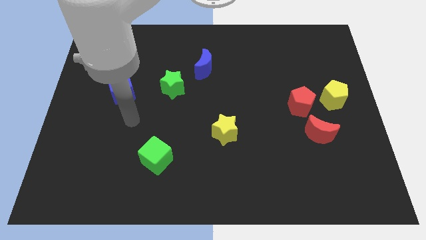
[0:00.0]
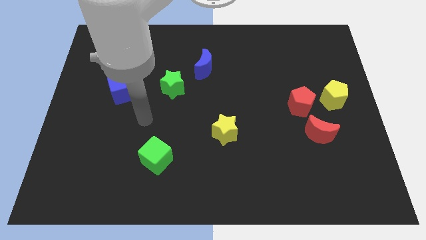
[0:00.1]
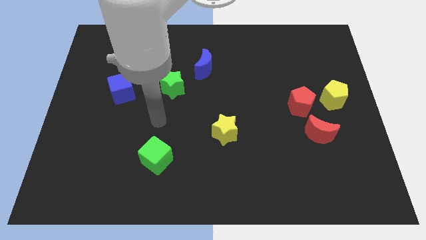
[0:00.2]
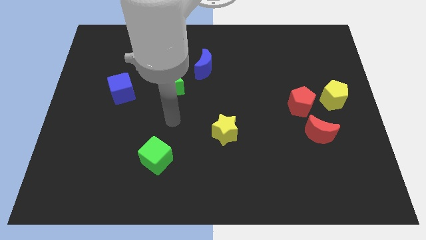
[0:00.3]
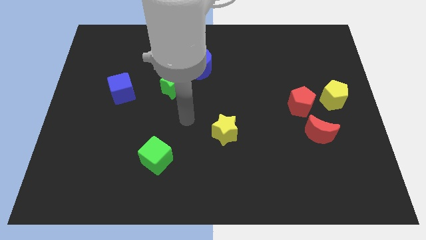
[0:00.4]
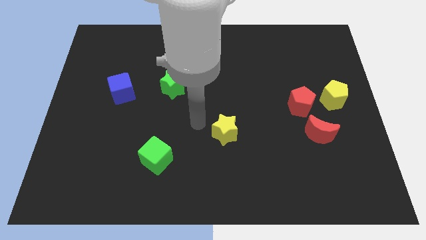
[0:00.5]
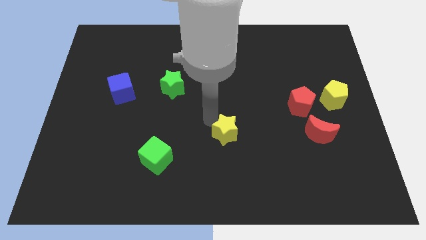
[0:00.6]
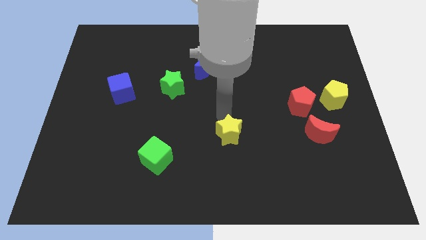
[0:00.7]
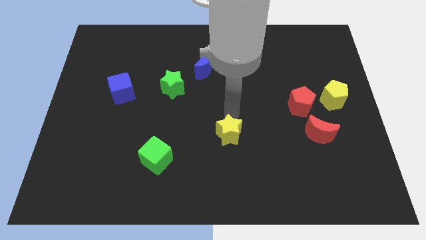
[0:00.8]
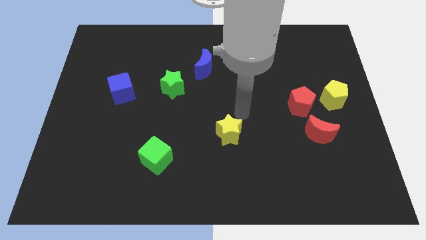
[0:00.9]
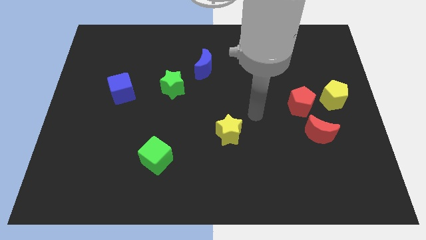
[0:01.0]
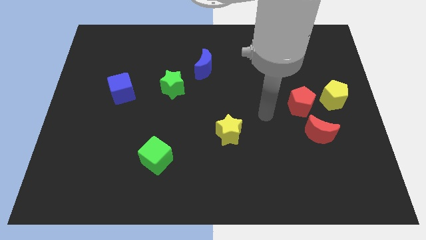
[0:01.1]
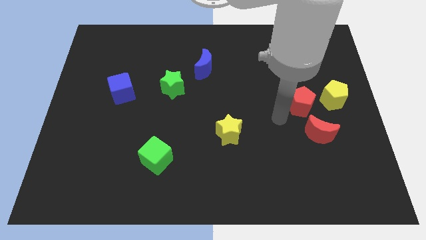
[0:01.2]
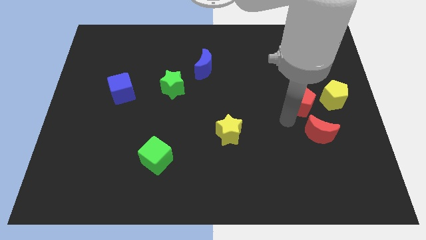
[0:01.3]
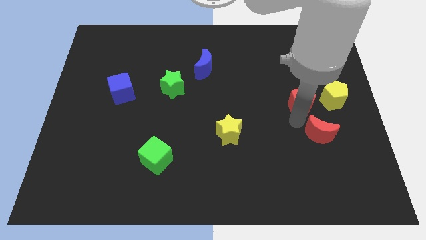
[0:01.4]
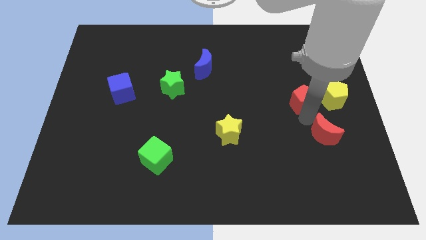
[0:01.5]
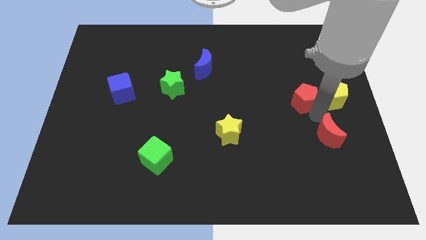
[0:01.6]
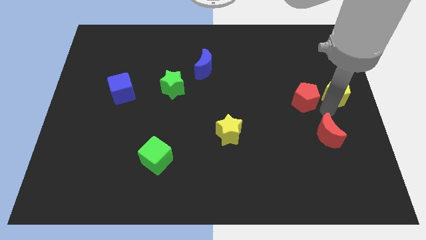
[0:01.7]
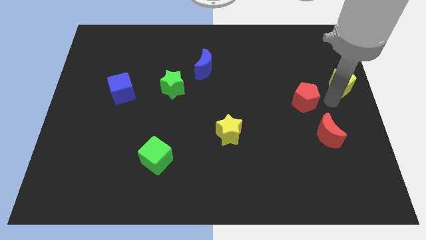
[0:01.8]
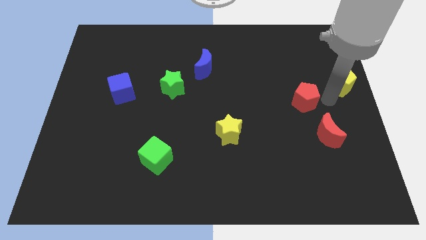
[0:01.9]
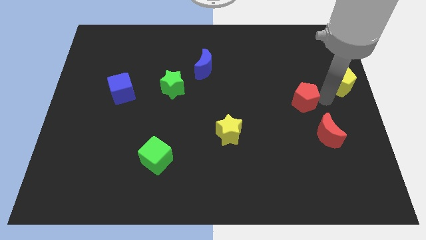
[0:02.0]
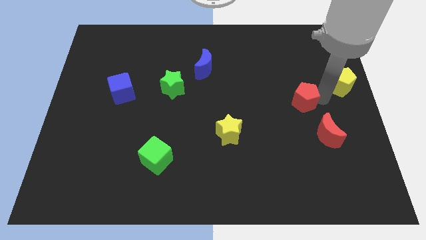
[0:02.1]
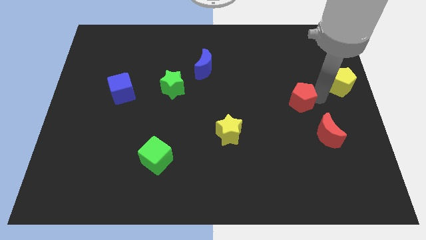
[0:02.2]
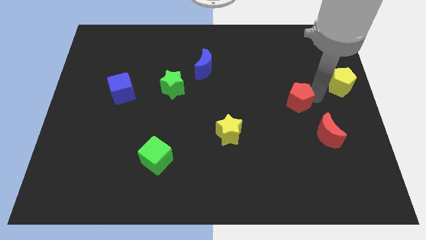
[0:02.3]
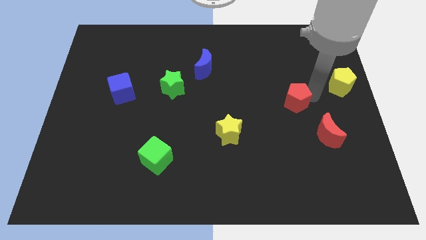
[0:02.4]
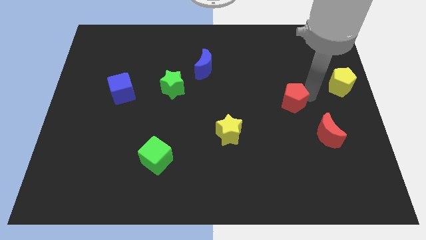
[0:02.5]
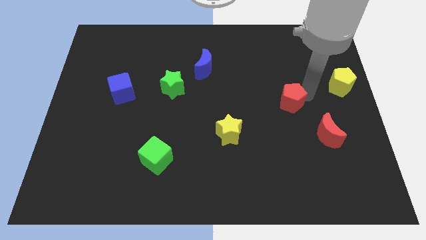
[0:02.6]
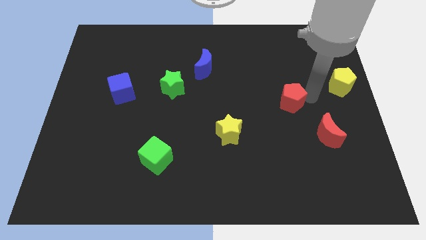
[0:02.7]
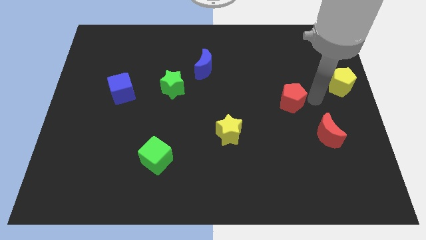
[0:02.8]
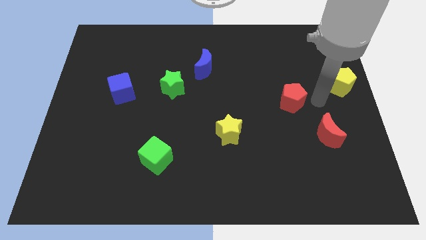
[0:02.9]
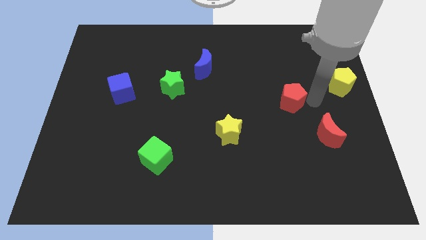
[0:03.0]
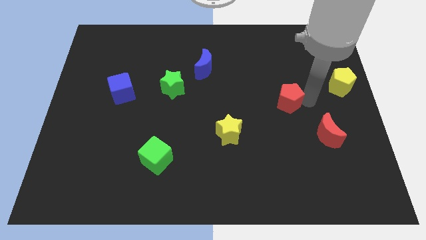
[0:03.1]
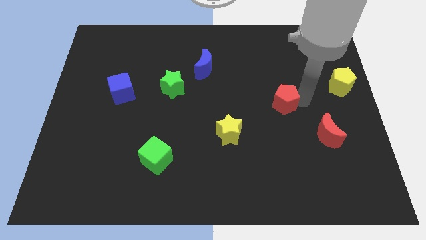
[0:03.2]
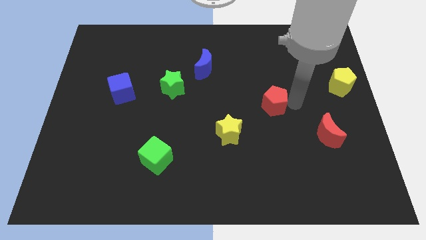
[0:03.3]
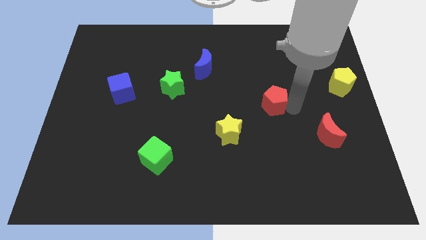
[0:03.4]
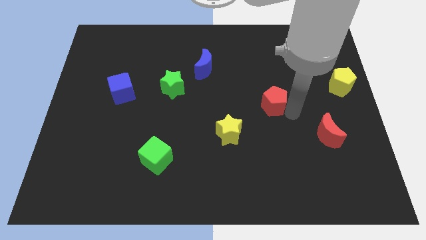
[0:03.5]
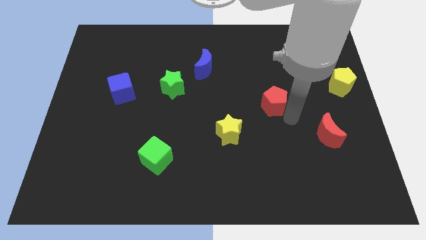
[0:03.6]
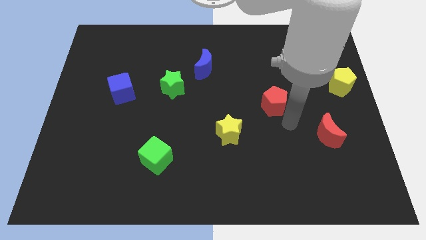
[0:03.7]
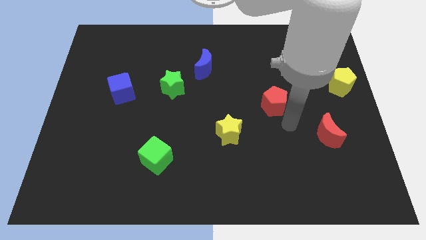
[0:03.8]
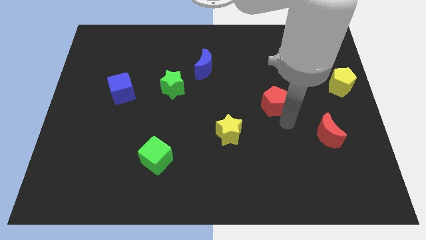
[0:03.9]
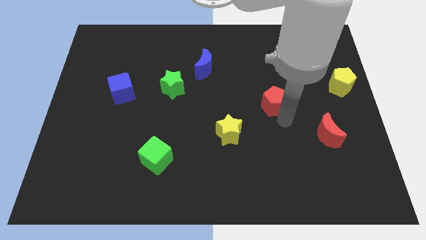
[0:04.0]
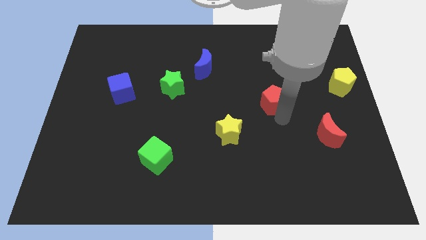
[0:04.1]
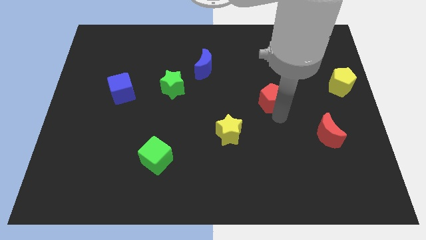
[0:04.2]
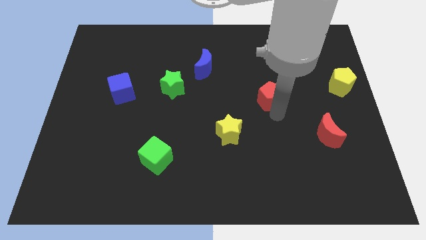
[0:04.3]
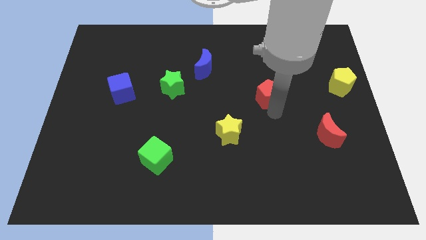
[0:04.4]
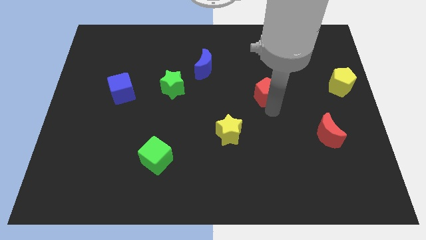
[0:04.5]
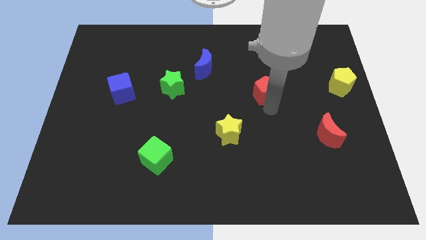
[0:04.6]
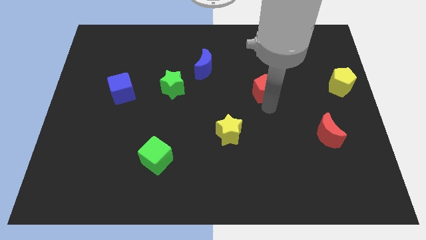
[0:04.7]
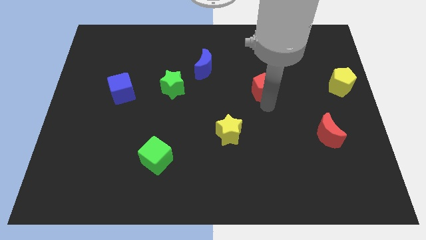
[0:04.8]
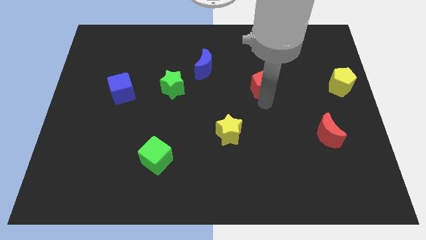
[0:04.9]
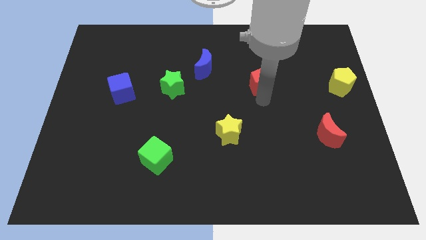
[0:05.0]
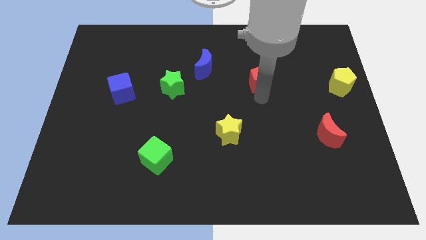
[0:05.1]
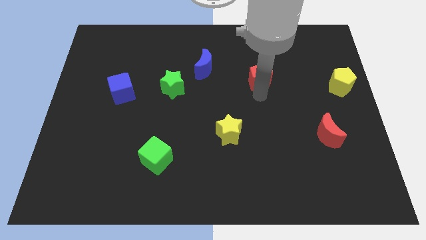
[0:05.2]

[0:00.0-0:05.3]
move the red pentagon right of the blue moon

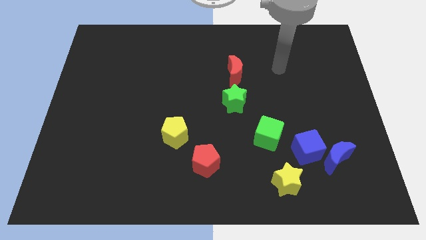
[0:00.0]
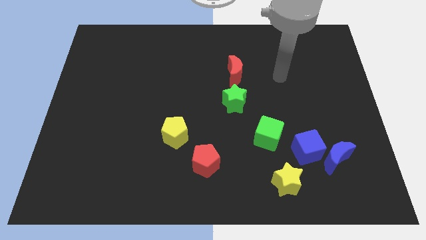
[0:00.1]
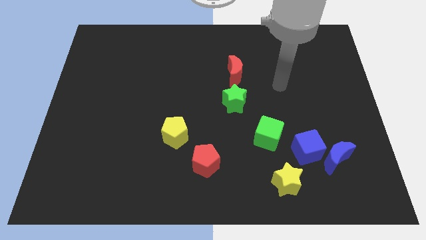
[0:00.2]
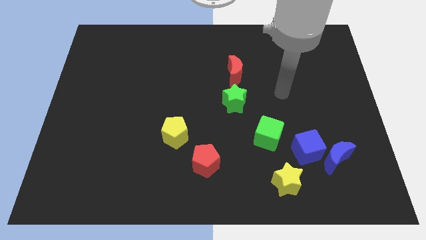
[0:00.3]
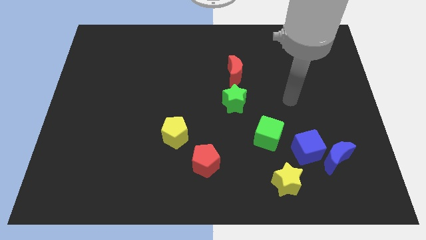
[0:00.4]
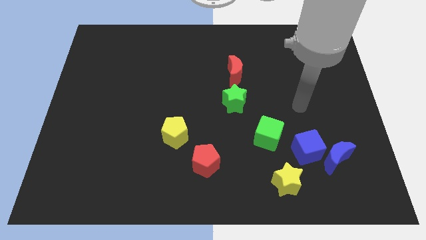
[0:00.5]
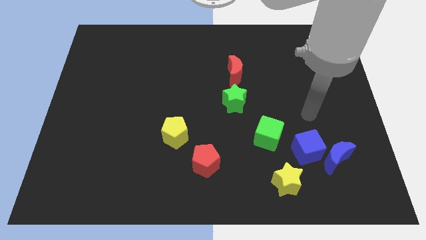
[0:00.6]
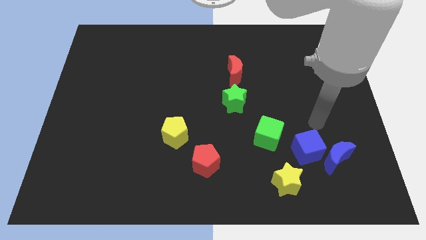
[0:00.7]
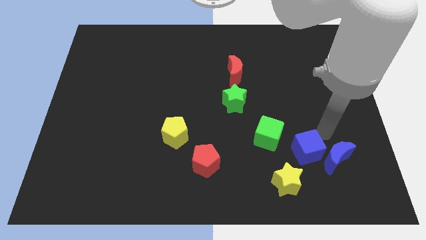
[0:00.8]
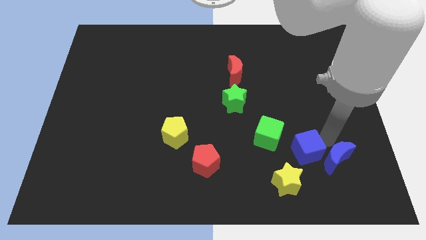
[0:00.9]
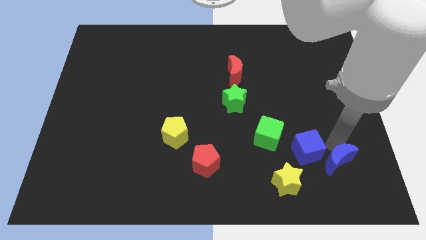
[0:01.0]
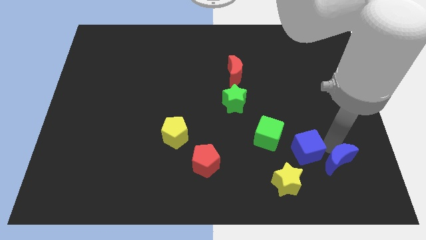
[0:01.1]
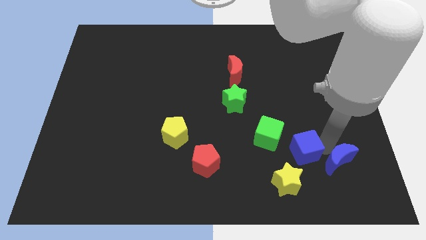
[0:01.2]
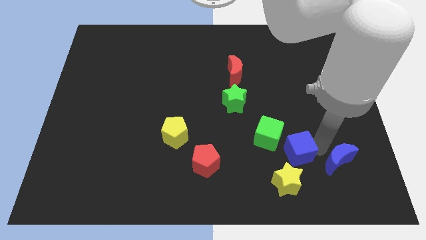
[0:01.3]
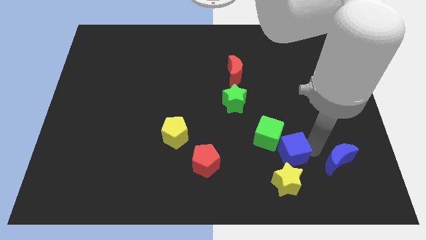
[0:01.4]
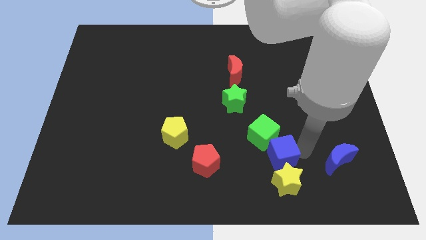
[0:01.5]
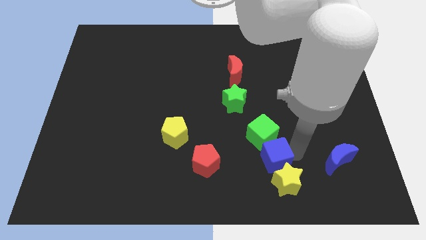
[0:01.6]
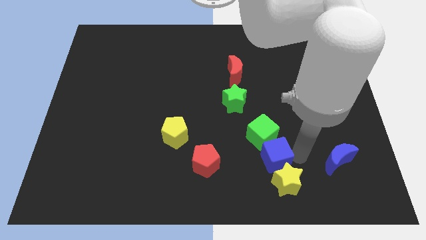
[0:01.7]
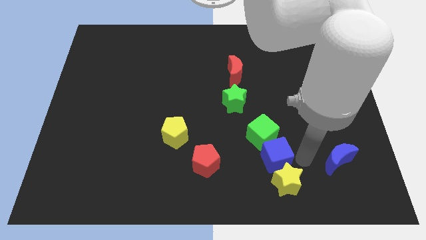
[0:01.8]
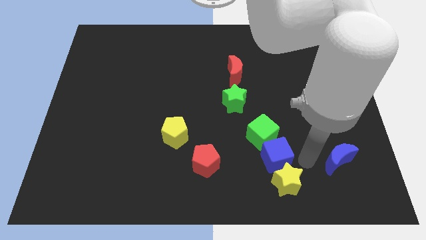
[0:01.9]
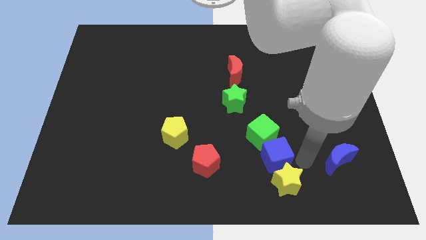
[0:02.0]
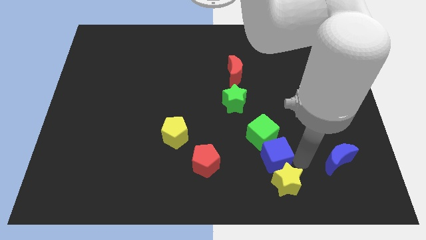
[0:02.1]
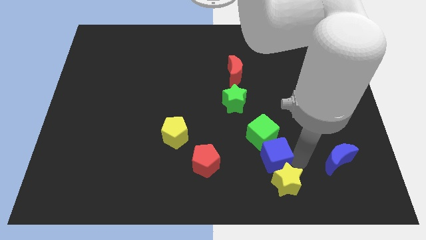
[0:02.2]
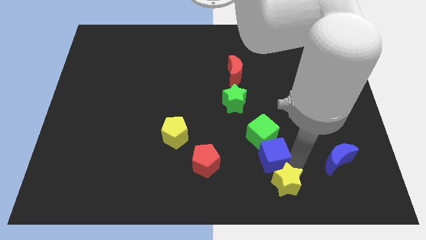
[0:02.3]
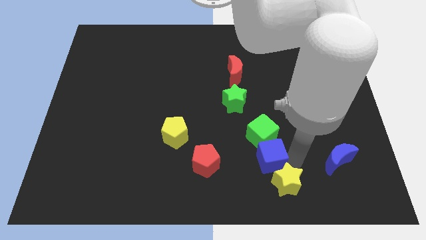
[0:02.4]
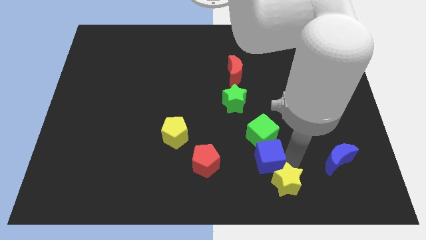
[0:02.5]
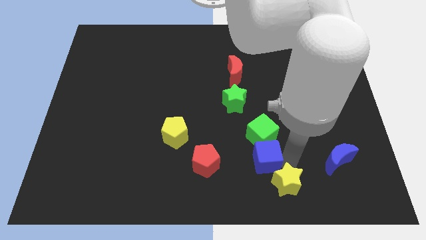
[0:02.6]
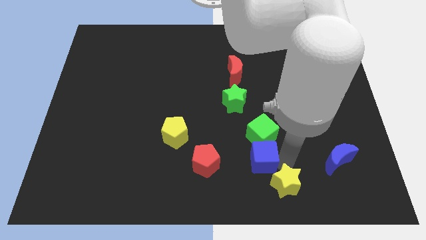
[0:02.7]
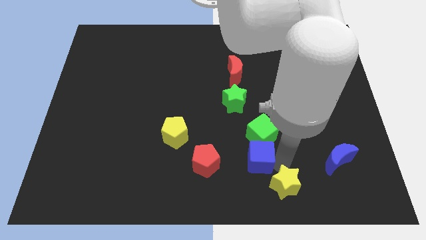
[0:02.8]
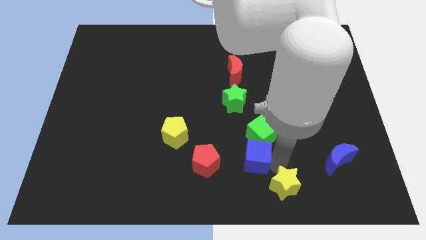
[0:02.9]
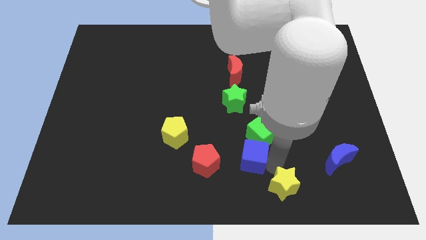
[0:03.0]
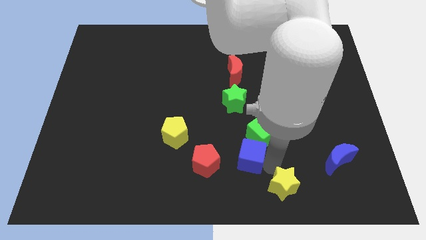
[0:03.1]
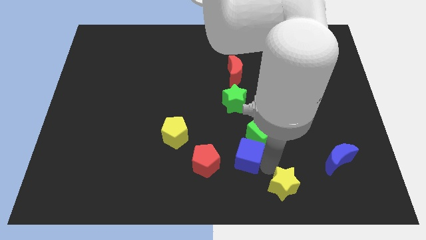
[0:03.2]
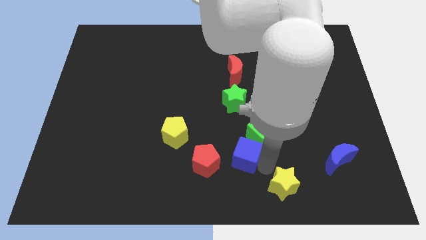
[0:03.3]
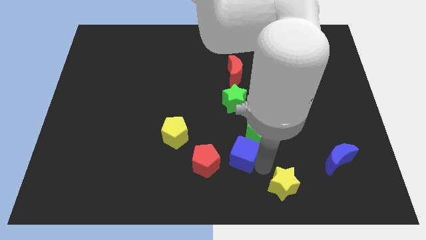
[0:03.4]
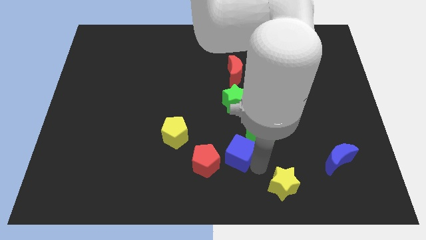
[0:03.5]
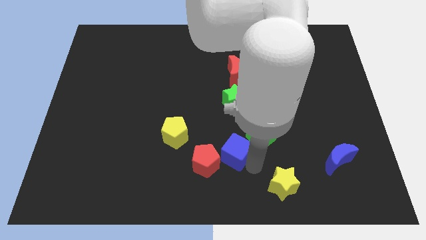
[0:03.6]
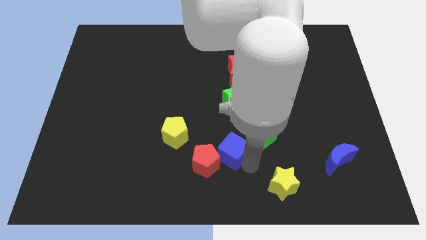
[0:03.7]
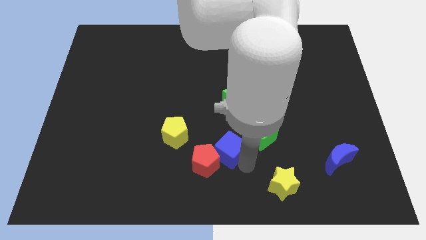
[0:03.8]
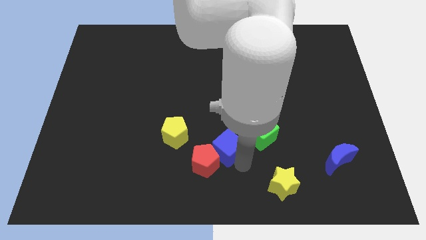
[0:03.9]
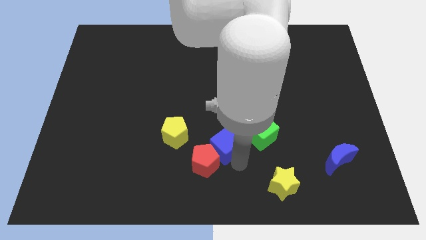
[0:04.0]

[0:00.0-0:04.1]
slide the blue cube to the top of the red pentagon
